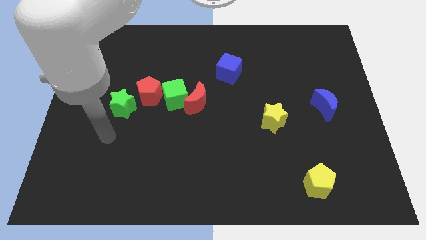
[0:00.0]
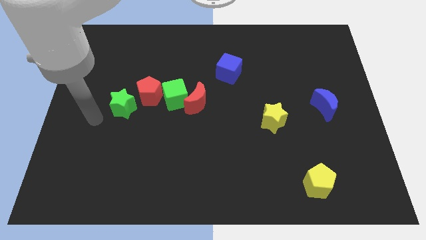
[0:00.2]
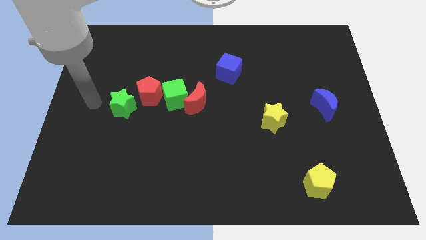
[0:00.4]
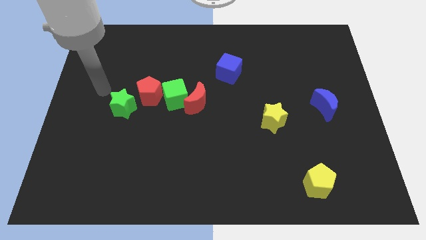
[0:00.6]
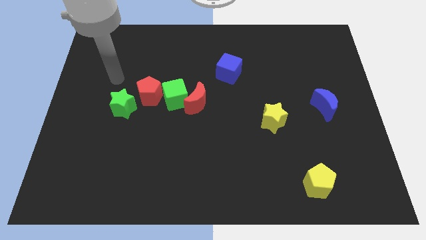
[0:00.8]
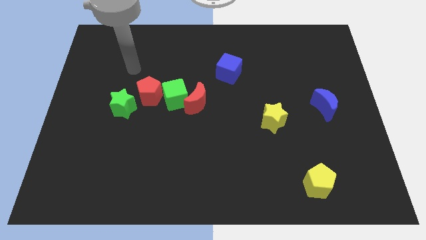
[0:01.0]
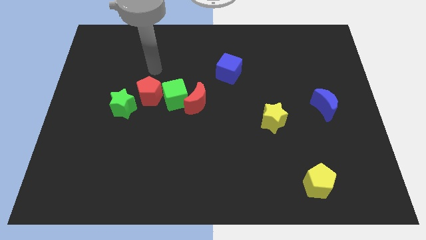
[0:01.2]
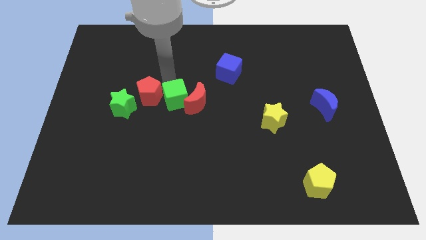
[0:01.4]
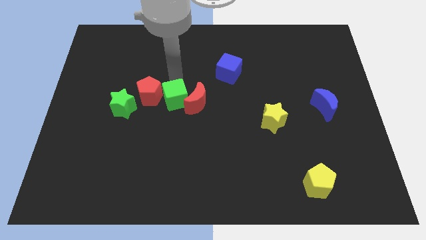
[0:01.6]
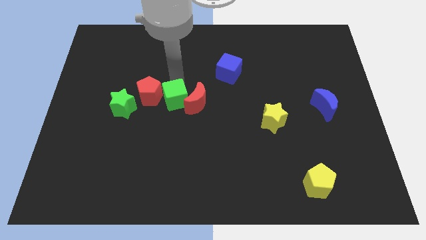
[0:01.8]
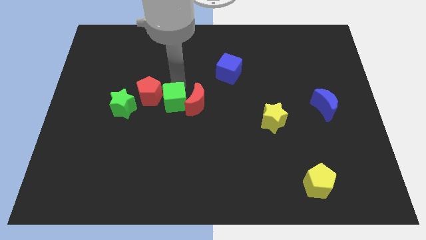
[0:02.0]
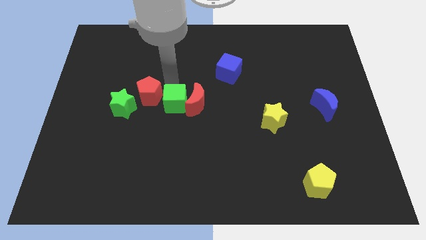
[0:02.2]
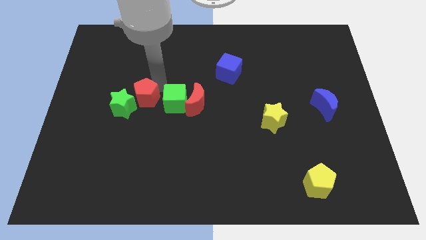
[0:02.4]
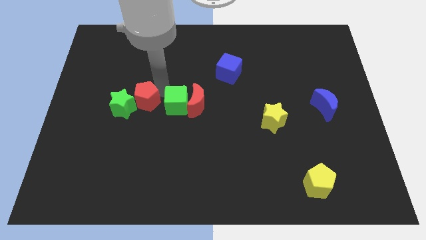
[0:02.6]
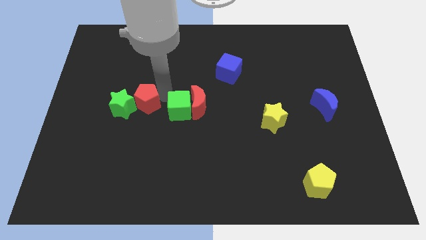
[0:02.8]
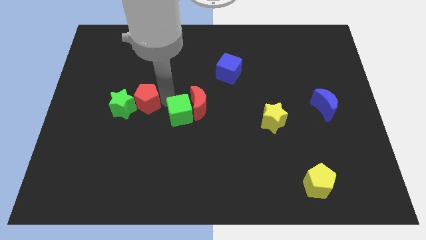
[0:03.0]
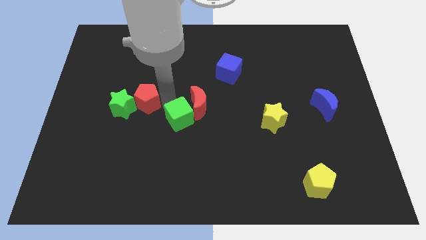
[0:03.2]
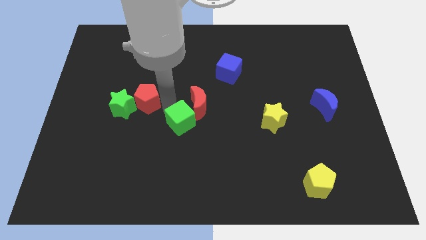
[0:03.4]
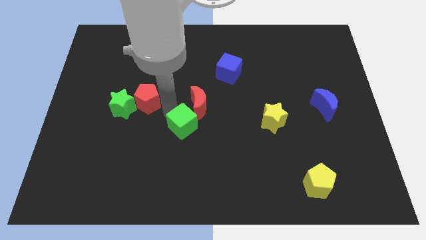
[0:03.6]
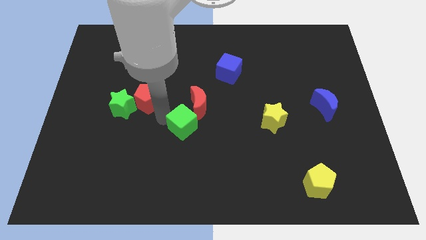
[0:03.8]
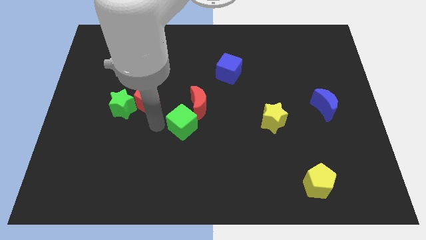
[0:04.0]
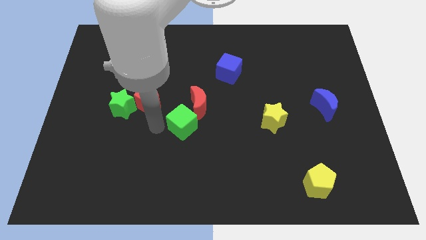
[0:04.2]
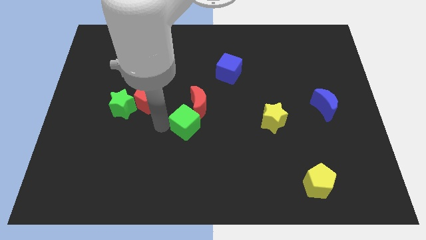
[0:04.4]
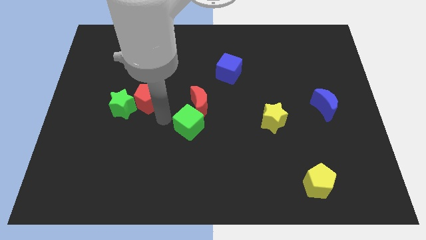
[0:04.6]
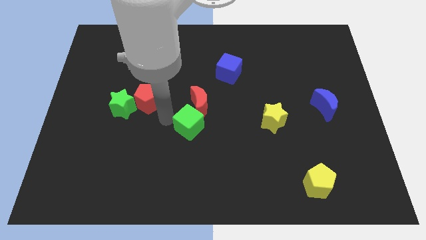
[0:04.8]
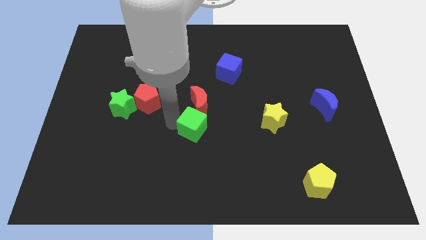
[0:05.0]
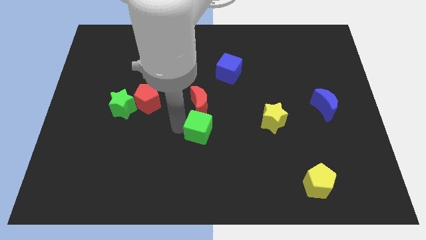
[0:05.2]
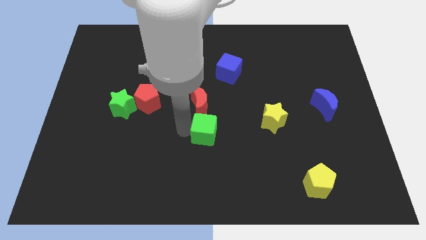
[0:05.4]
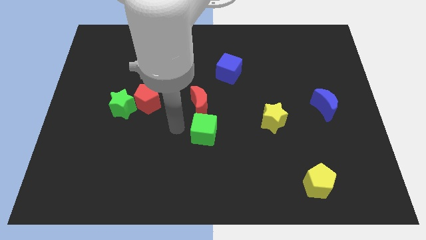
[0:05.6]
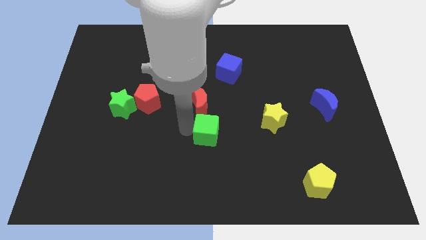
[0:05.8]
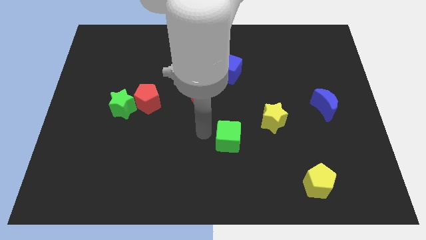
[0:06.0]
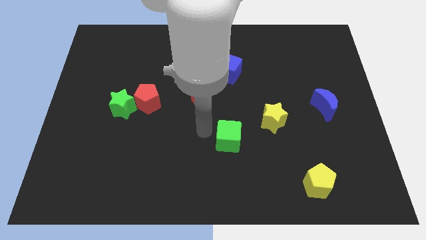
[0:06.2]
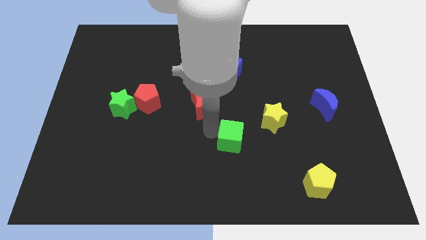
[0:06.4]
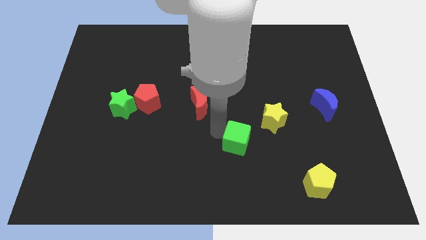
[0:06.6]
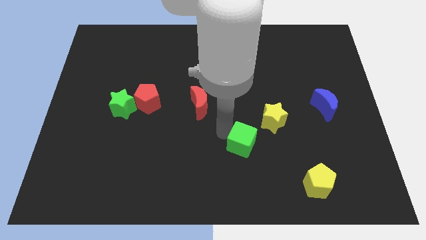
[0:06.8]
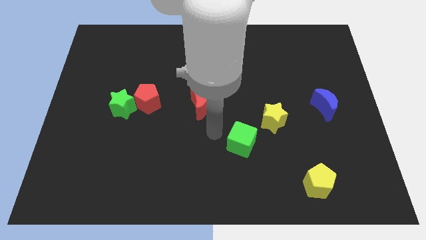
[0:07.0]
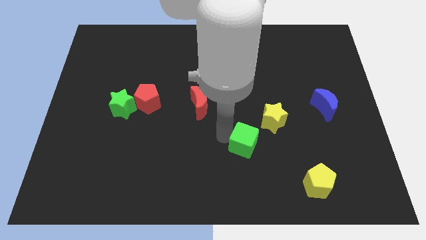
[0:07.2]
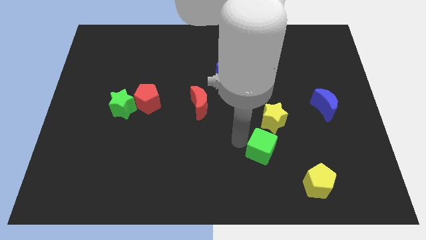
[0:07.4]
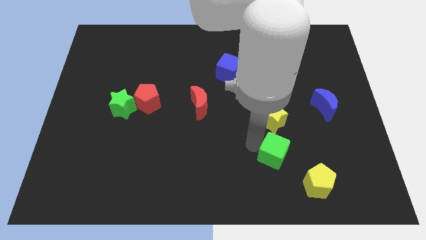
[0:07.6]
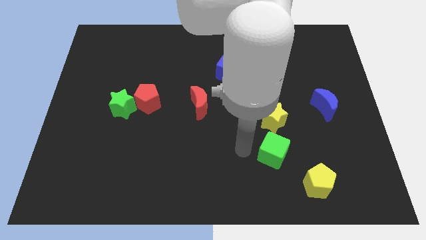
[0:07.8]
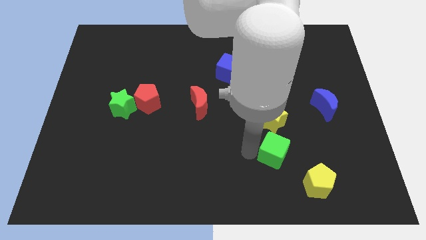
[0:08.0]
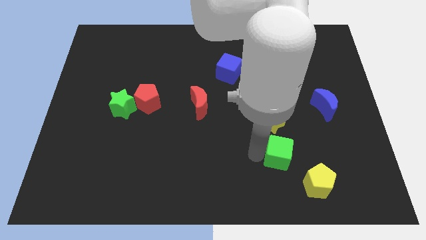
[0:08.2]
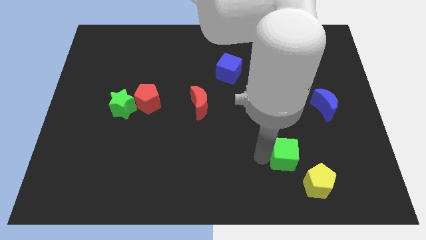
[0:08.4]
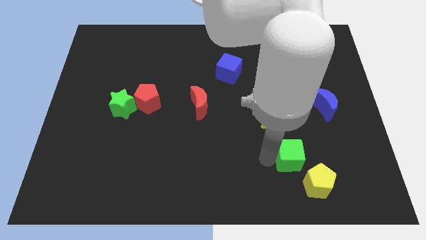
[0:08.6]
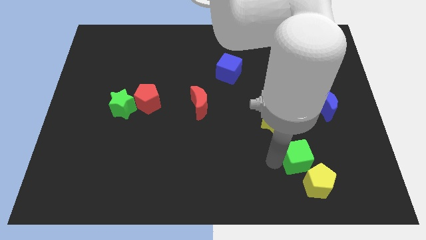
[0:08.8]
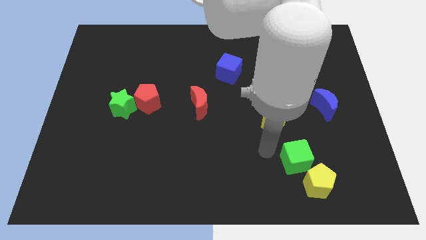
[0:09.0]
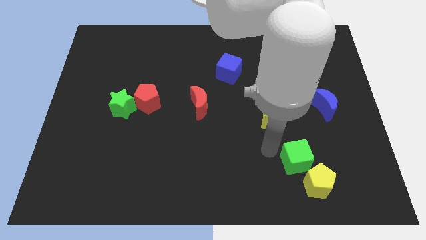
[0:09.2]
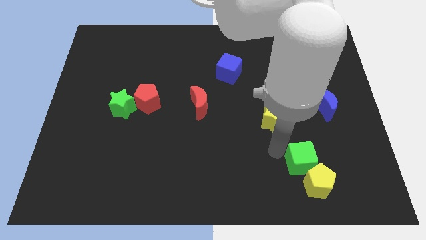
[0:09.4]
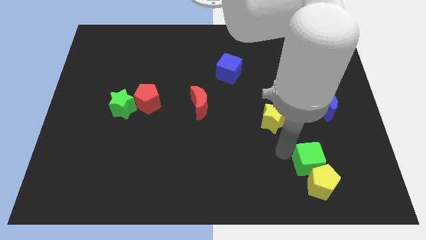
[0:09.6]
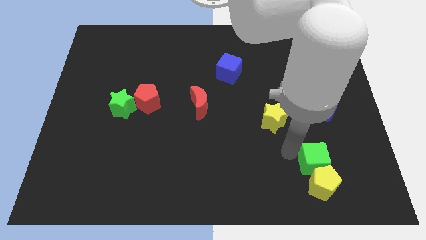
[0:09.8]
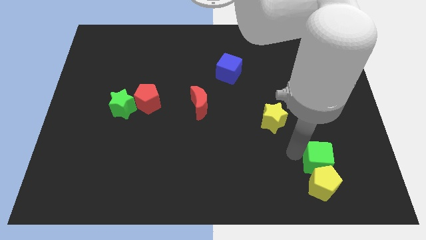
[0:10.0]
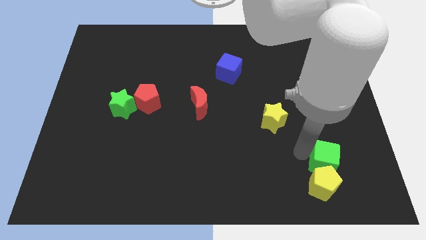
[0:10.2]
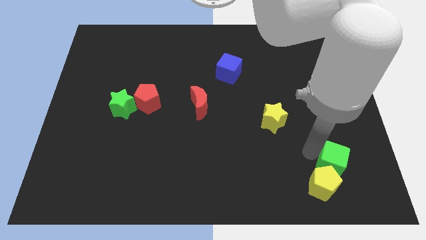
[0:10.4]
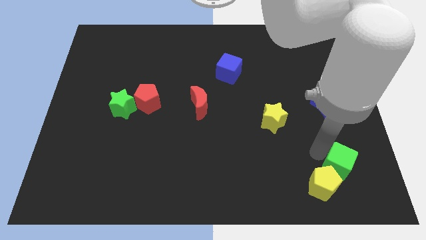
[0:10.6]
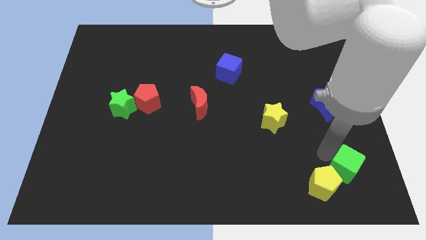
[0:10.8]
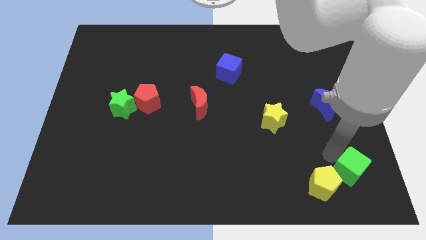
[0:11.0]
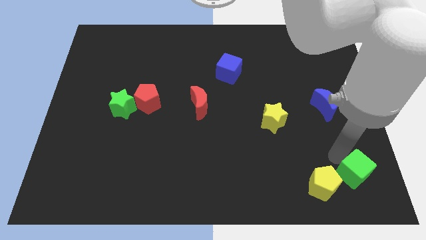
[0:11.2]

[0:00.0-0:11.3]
put the green cube to the bottom right corner

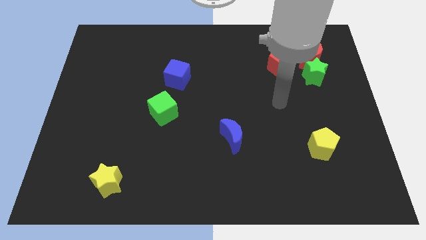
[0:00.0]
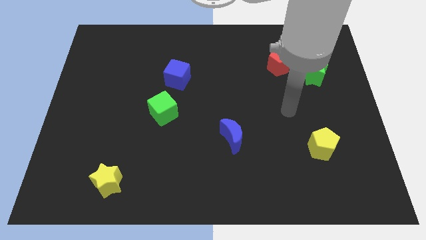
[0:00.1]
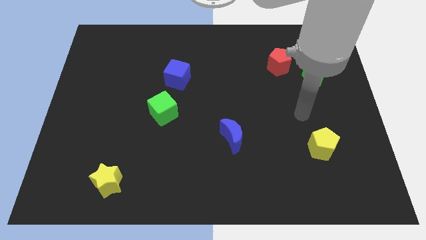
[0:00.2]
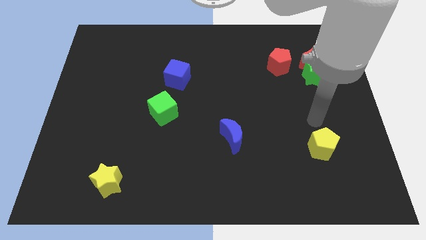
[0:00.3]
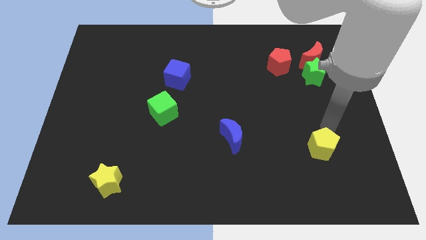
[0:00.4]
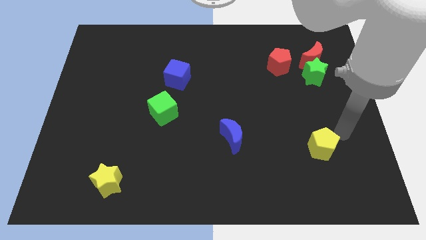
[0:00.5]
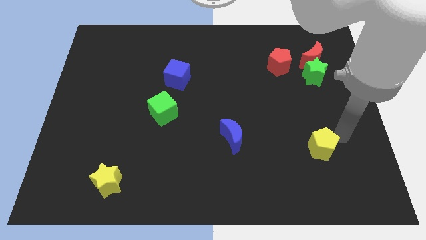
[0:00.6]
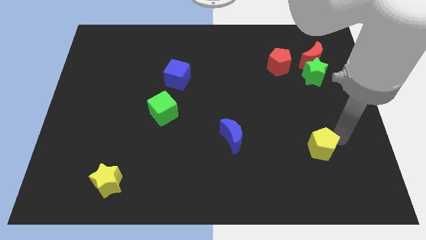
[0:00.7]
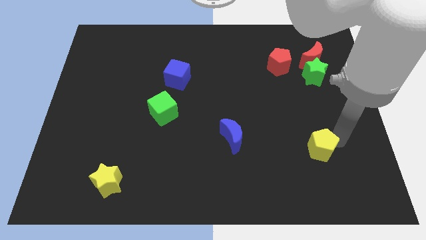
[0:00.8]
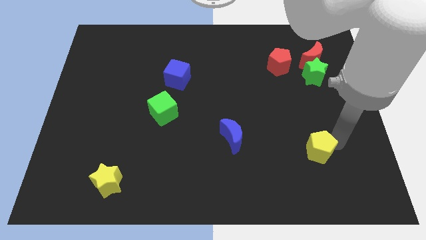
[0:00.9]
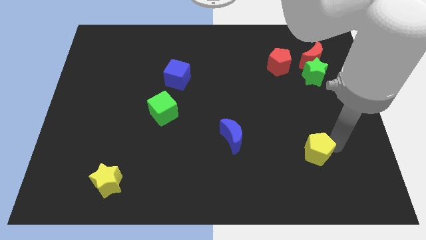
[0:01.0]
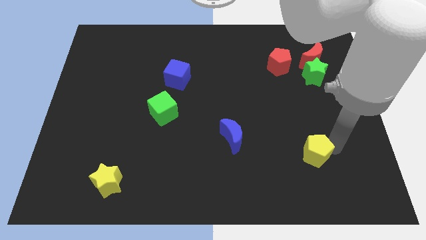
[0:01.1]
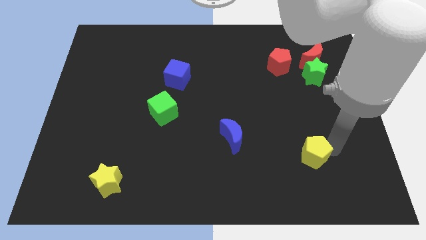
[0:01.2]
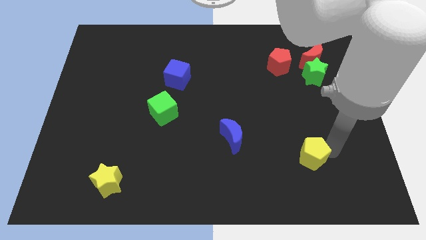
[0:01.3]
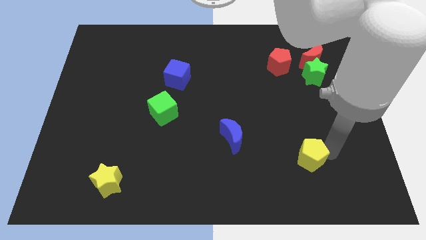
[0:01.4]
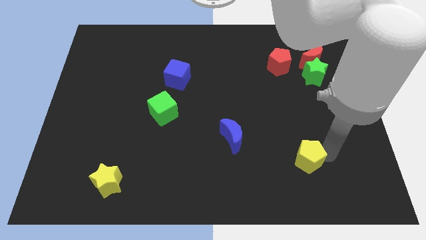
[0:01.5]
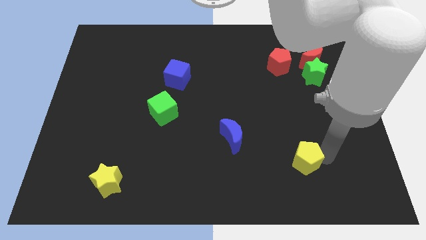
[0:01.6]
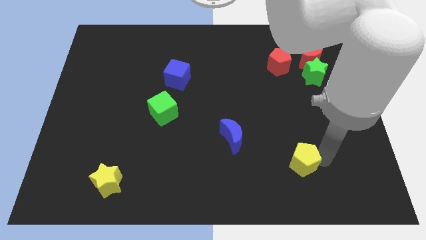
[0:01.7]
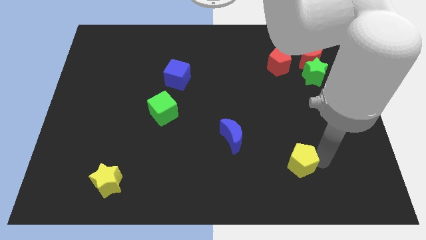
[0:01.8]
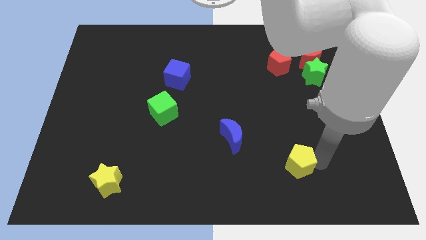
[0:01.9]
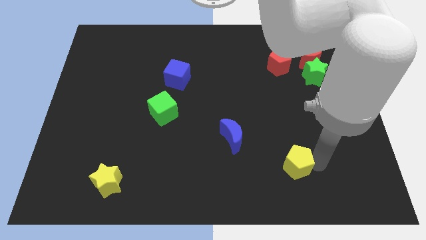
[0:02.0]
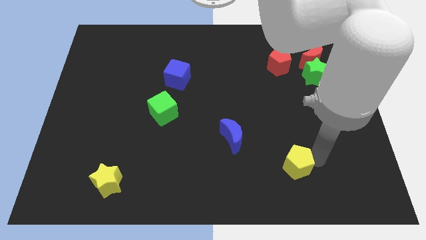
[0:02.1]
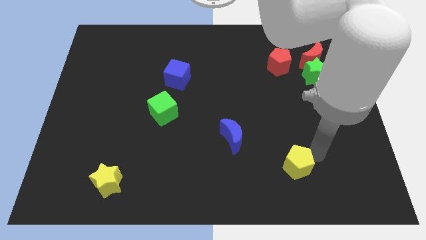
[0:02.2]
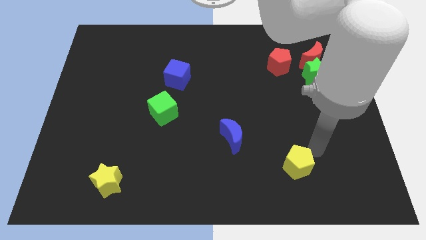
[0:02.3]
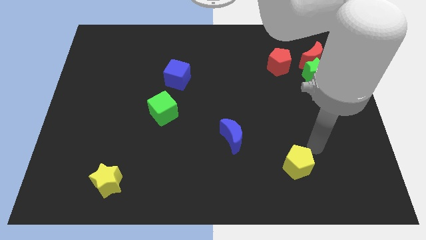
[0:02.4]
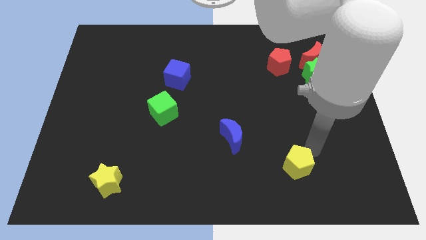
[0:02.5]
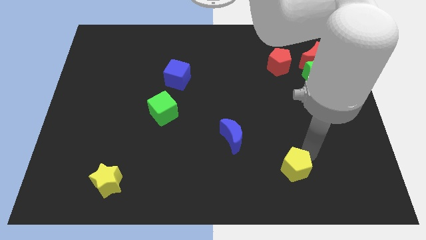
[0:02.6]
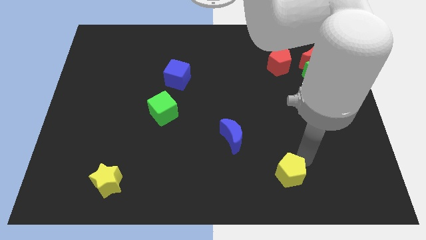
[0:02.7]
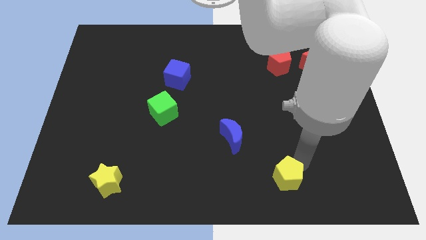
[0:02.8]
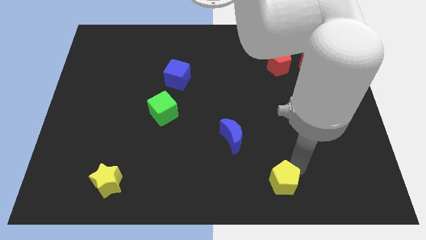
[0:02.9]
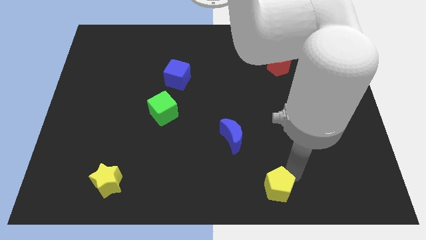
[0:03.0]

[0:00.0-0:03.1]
push the yellow pentagon to the bottom
